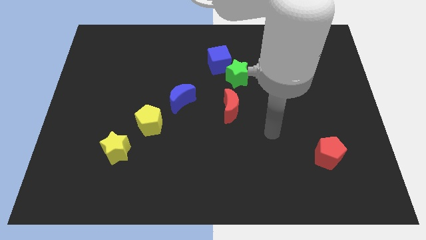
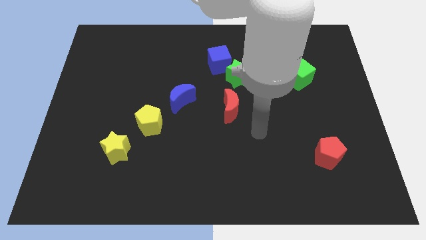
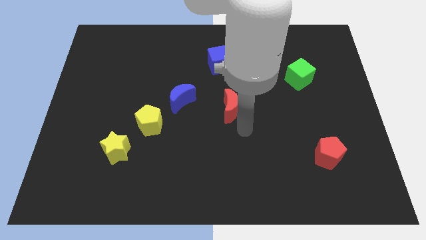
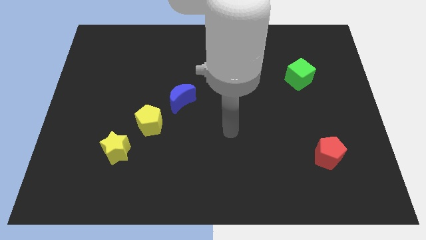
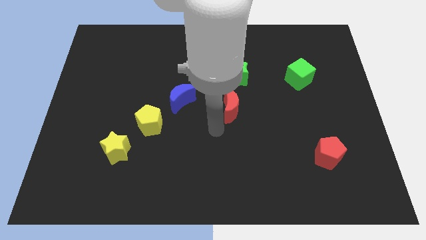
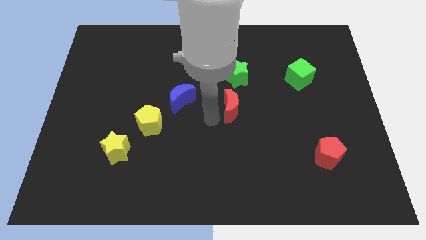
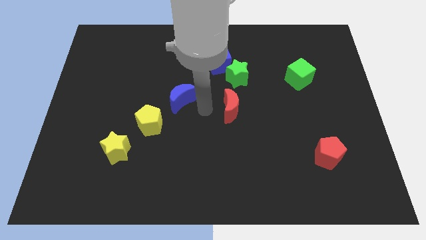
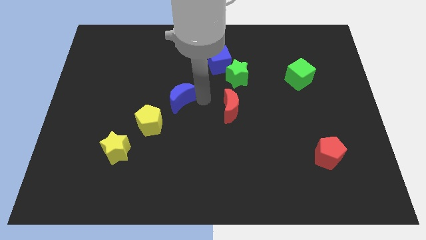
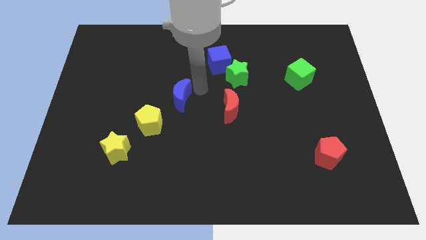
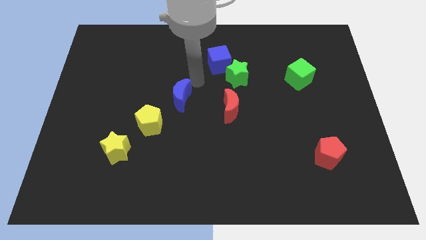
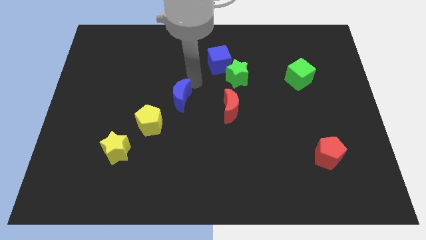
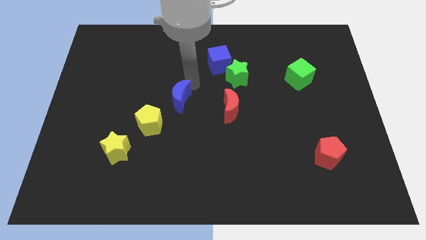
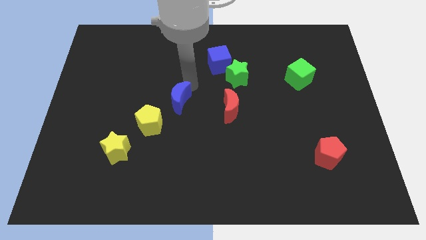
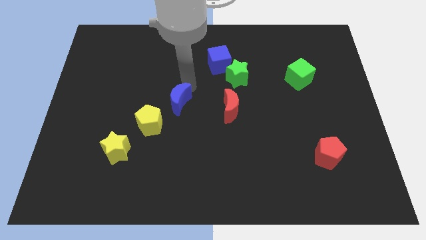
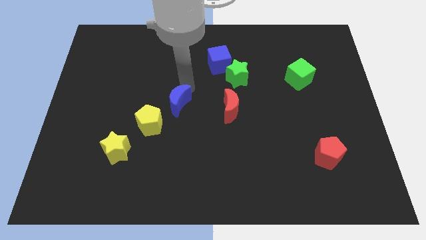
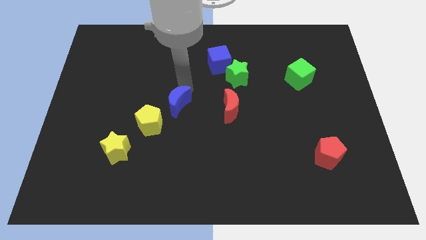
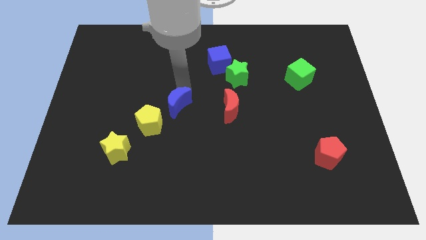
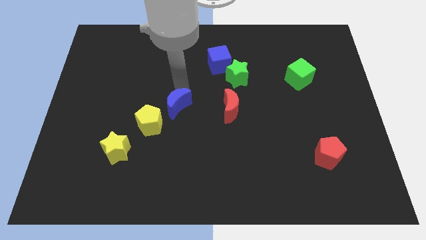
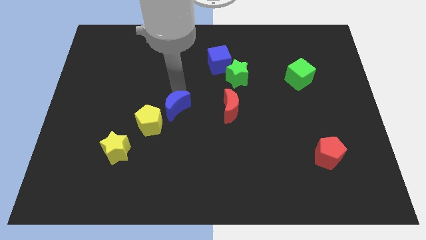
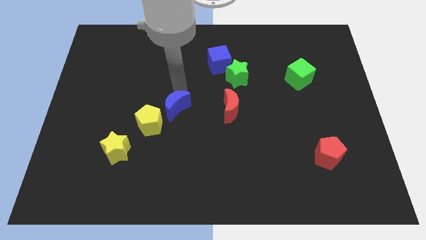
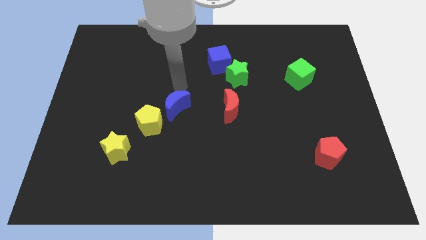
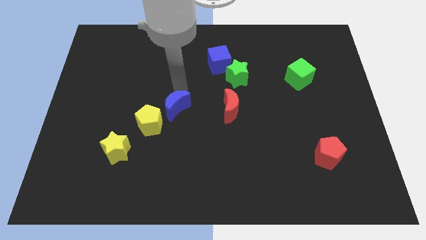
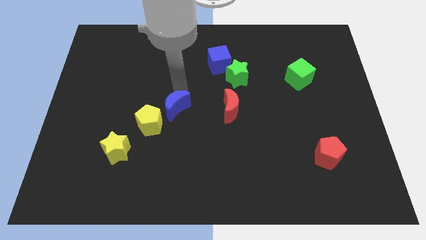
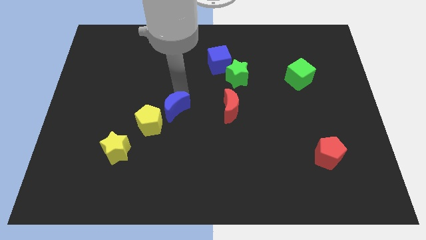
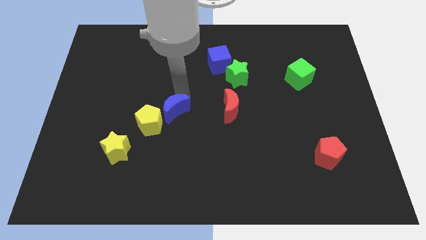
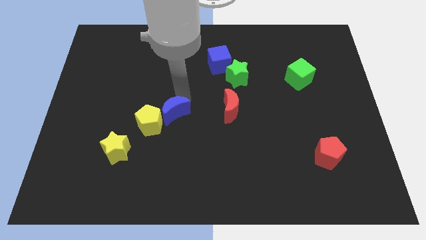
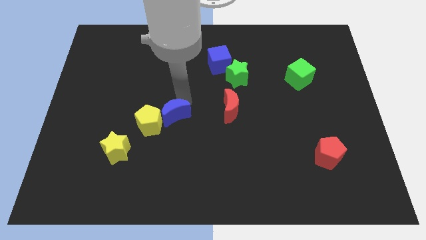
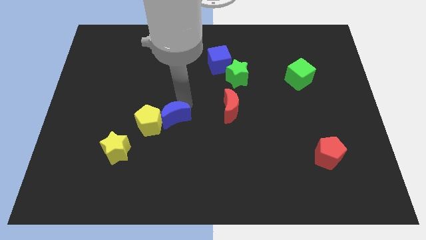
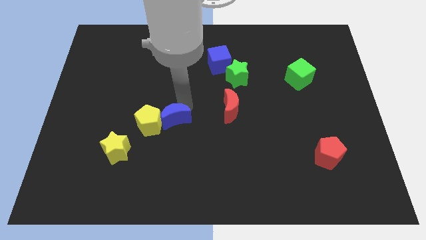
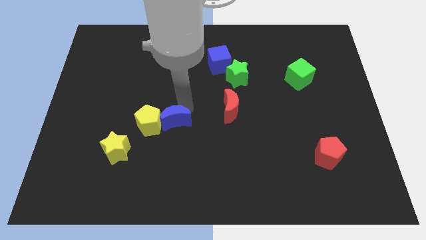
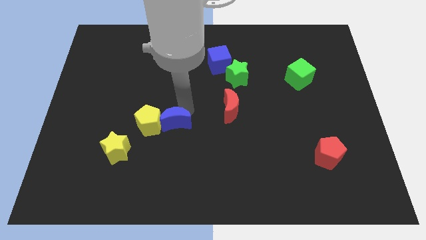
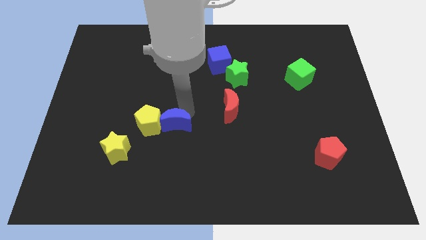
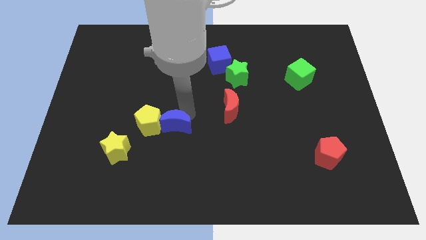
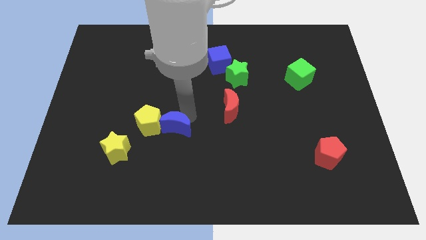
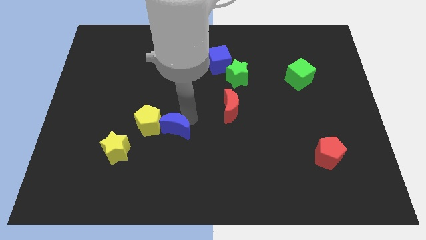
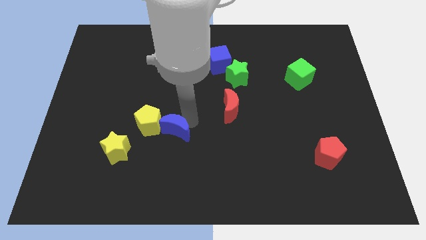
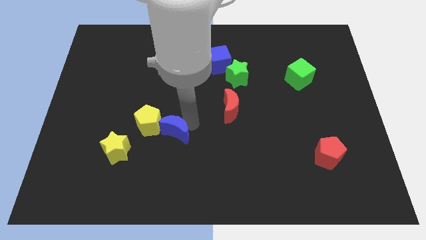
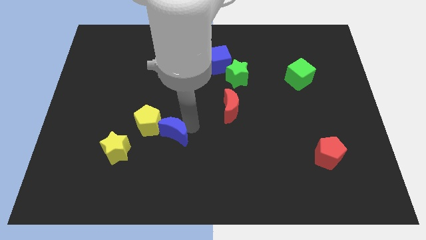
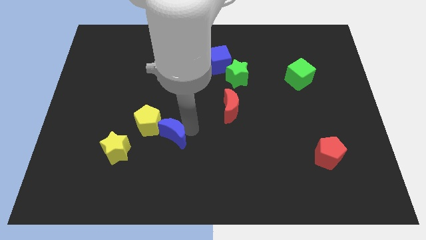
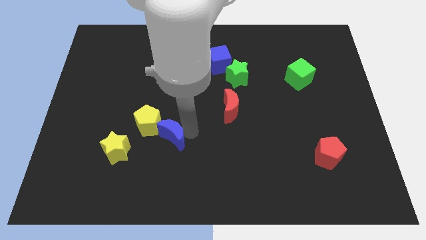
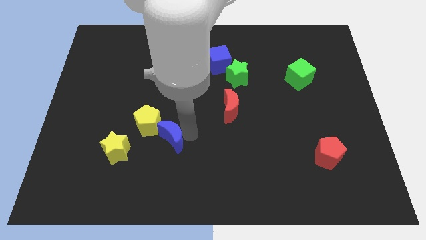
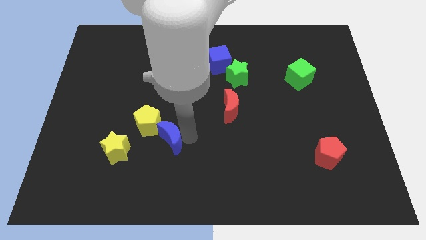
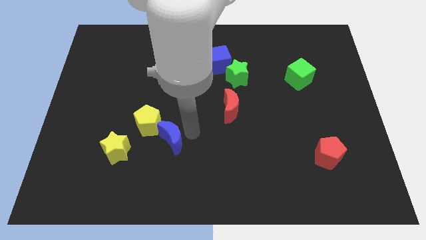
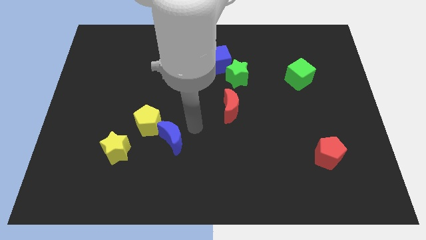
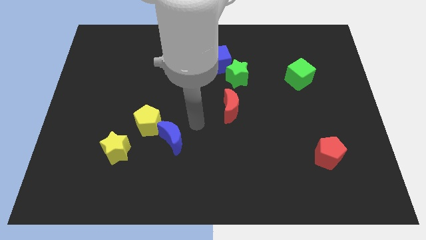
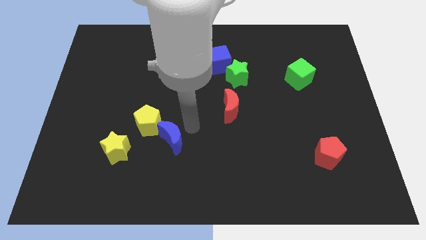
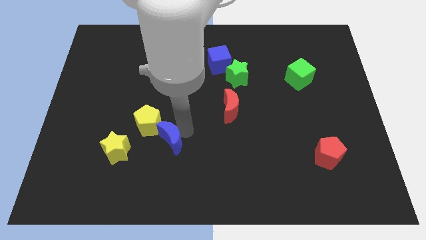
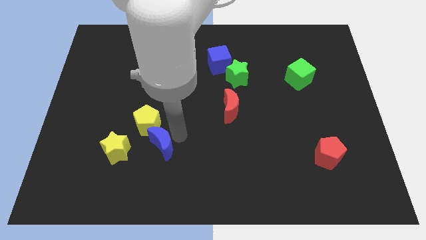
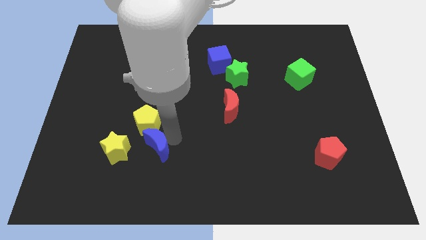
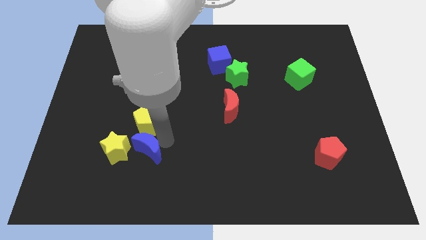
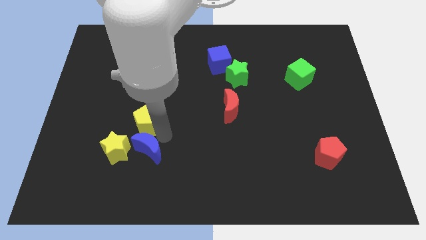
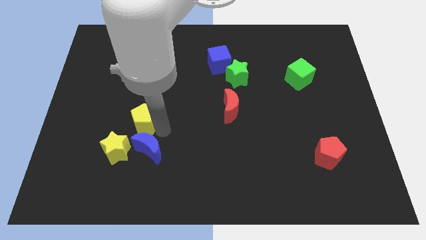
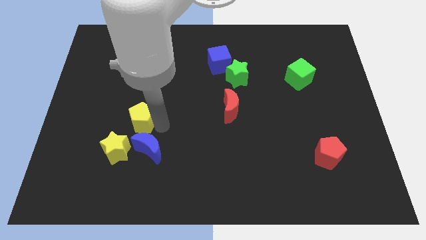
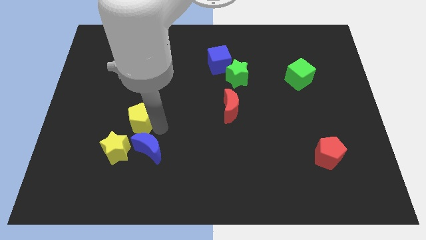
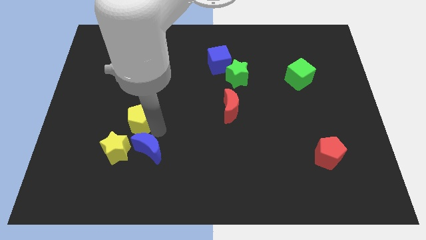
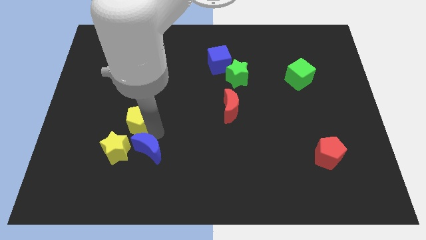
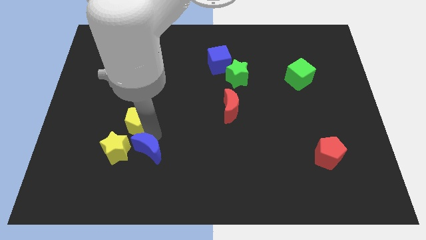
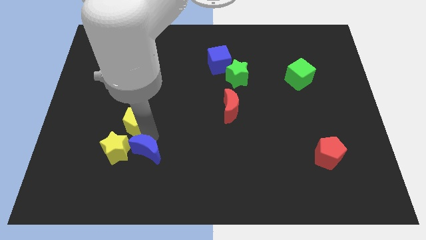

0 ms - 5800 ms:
push the blue moon to the bottom right side of the yellow star

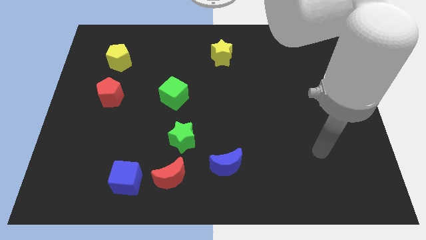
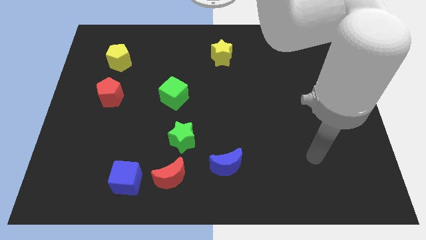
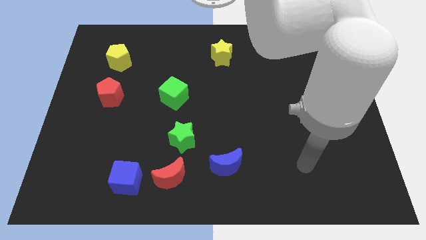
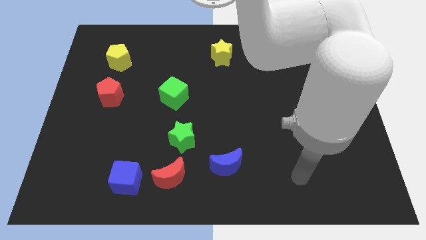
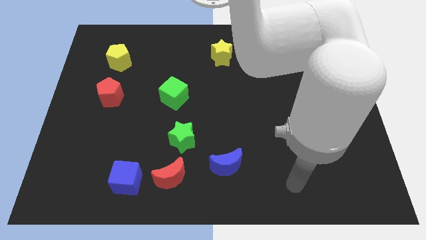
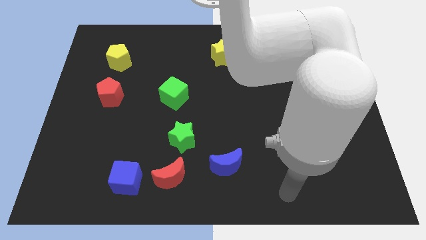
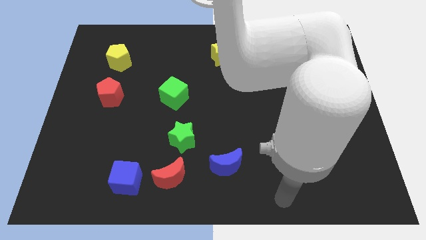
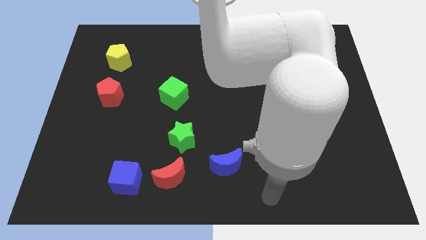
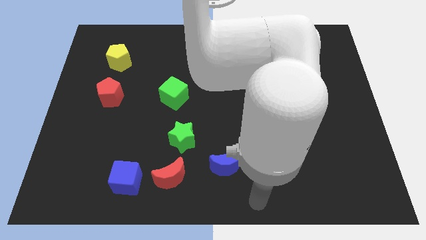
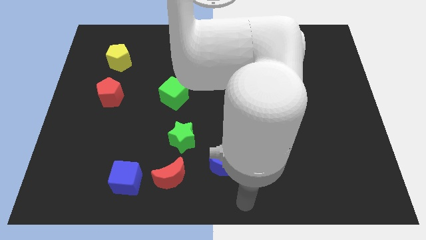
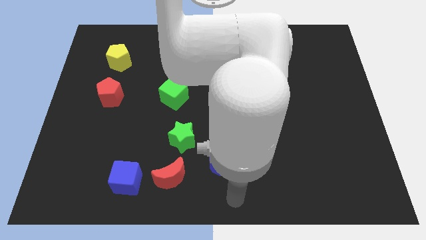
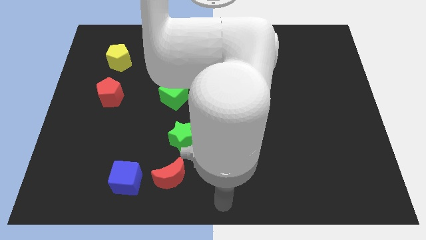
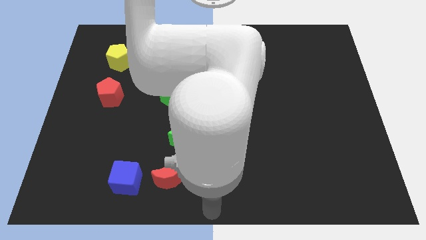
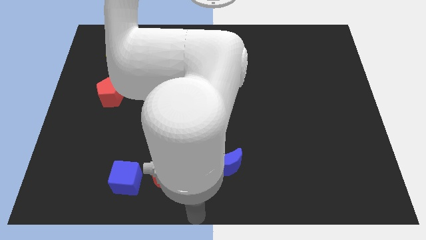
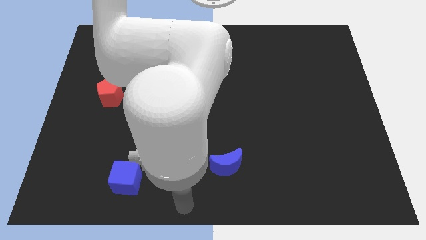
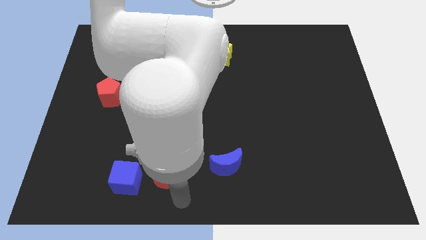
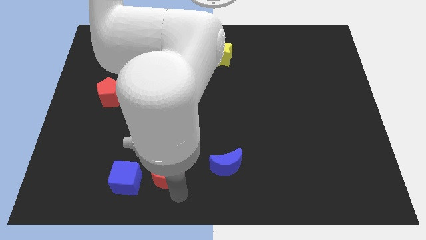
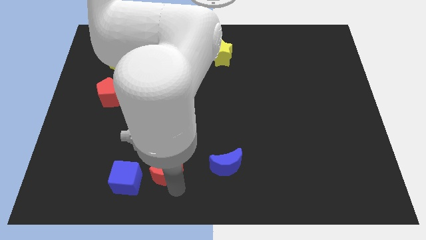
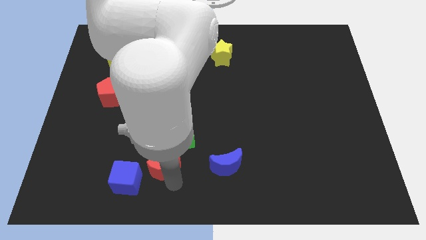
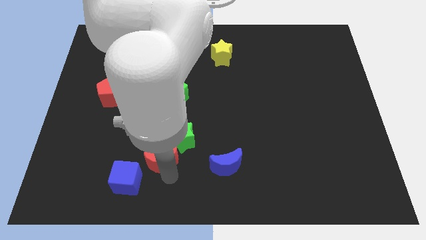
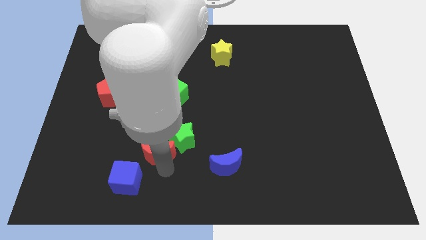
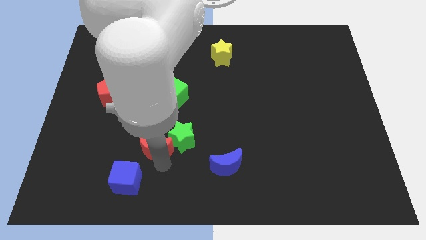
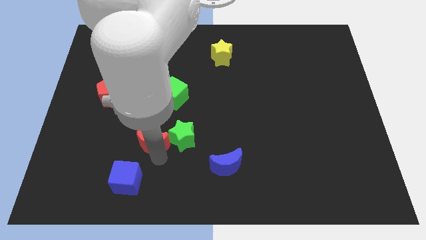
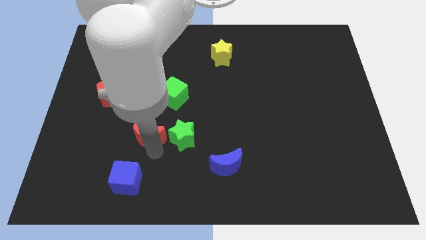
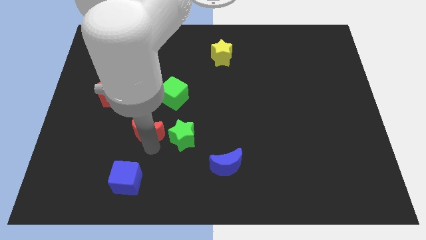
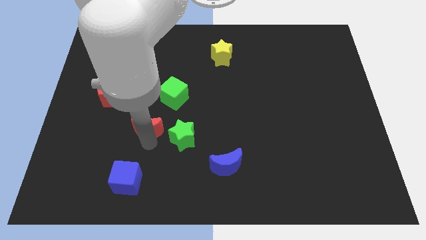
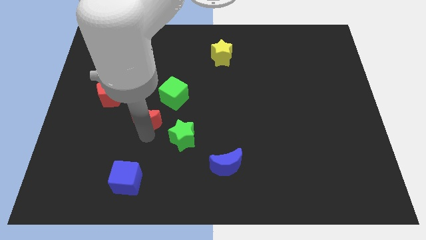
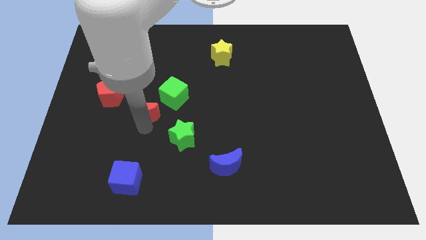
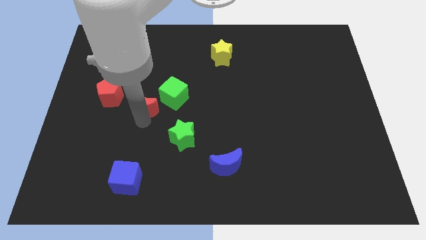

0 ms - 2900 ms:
move the red moon to the right of the red pentagon
